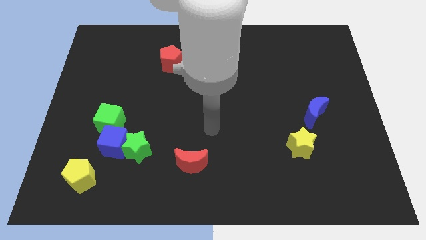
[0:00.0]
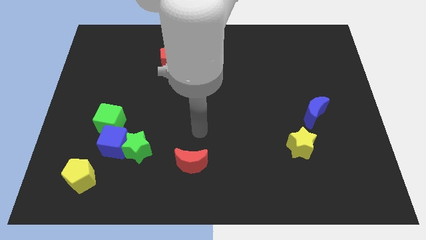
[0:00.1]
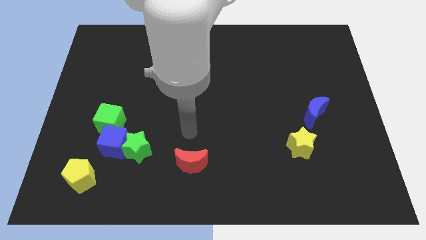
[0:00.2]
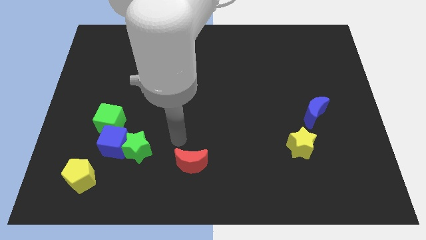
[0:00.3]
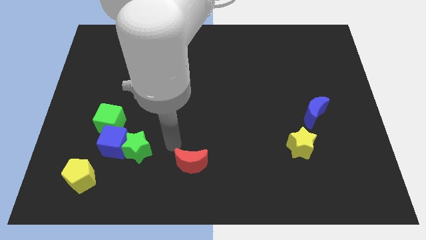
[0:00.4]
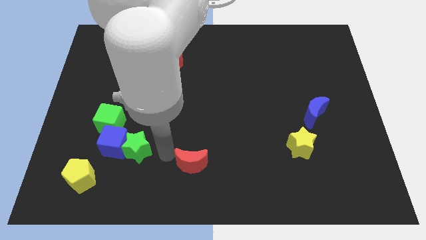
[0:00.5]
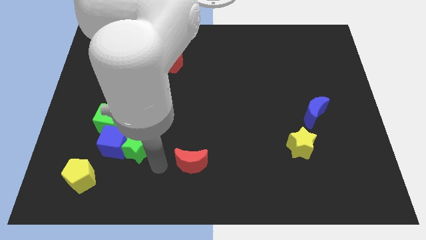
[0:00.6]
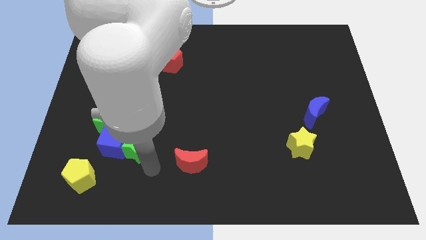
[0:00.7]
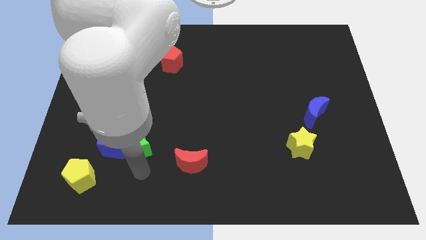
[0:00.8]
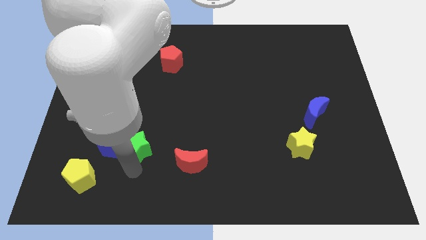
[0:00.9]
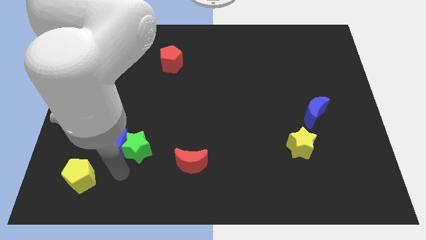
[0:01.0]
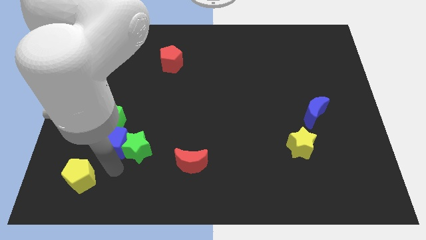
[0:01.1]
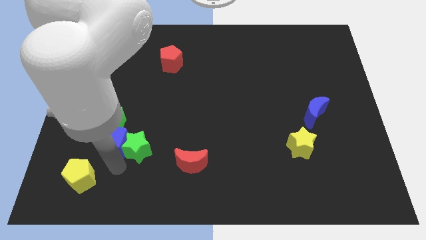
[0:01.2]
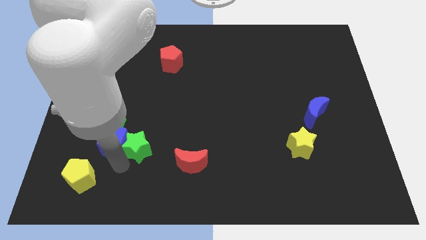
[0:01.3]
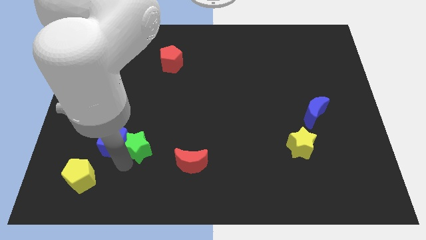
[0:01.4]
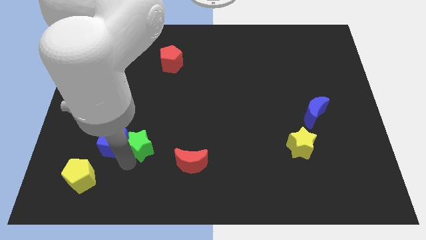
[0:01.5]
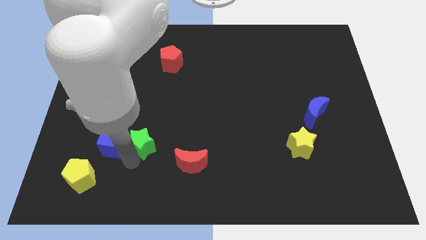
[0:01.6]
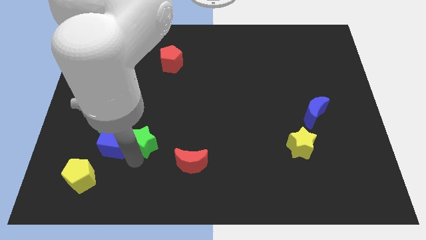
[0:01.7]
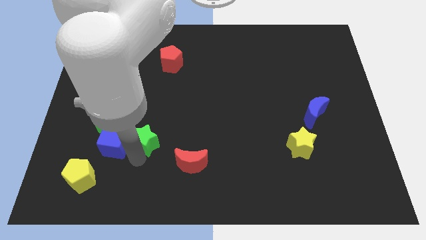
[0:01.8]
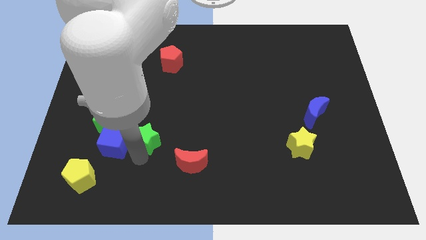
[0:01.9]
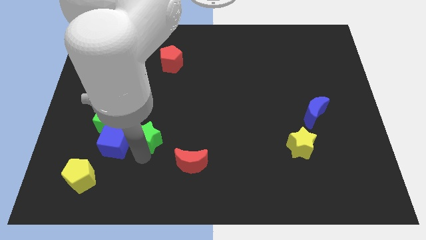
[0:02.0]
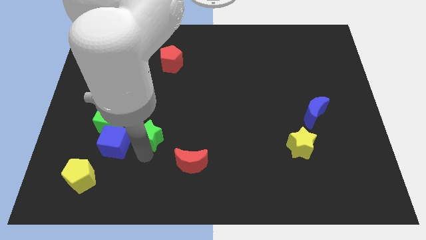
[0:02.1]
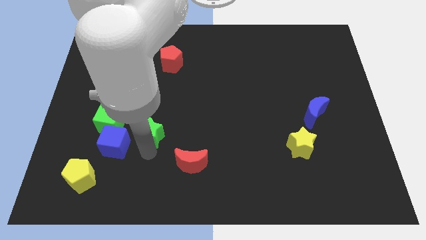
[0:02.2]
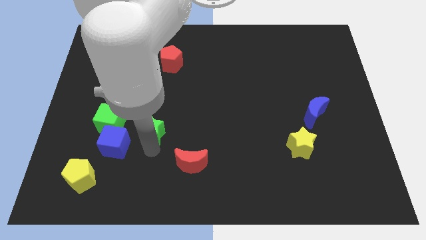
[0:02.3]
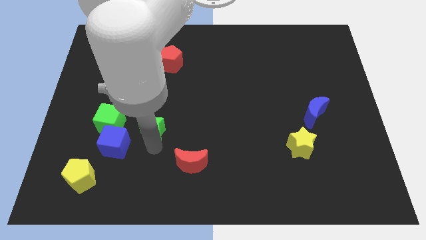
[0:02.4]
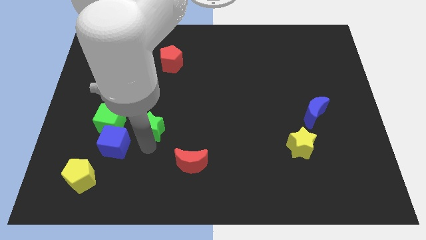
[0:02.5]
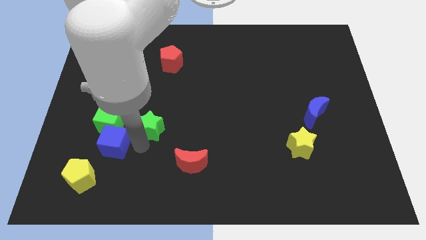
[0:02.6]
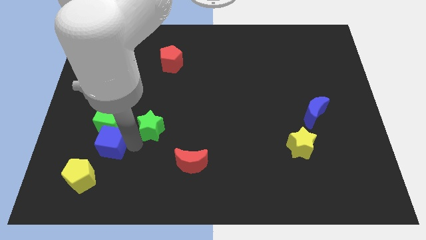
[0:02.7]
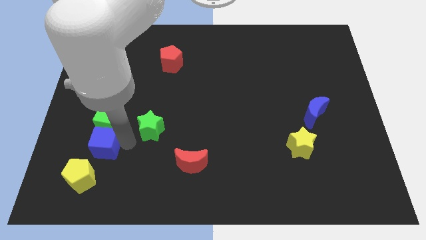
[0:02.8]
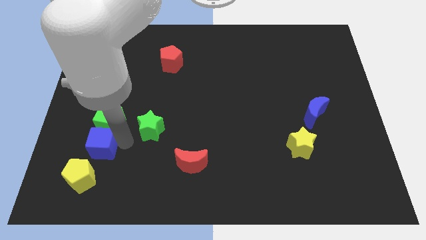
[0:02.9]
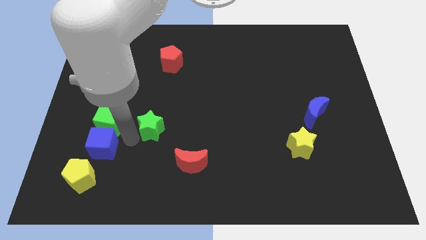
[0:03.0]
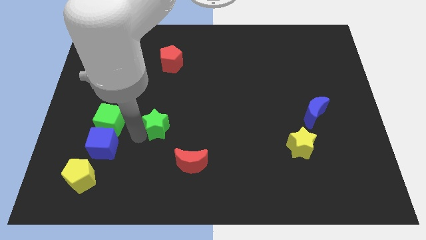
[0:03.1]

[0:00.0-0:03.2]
move the green star a little bit diagonally upwards and to the right

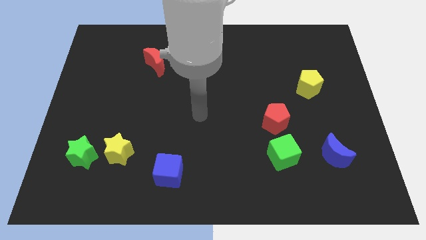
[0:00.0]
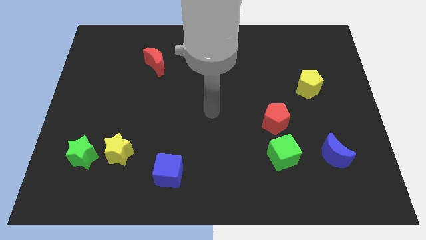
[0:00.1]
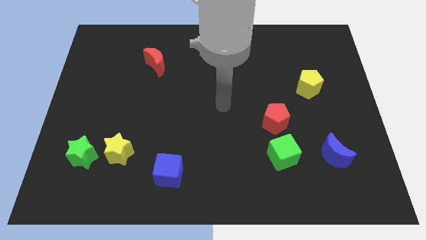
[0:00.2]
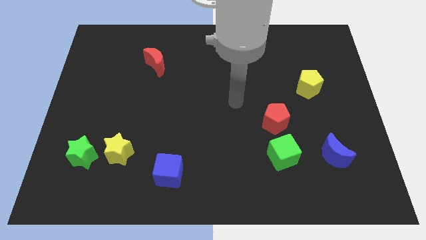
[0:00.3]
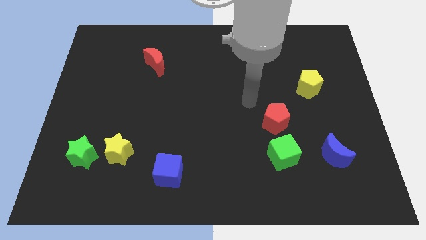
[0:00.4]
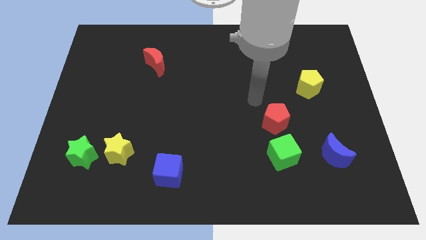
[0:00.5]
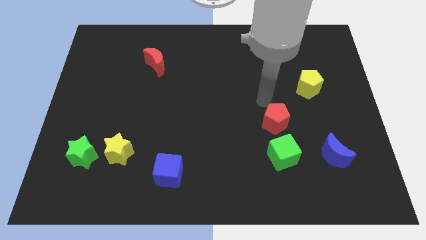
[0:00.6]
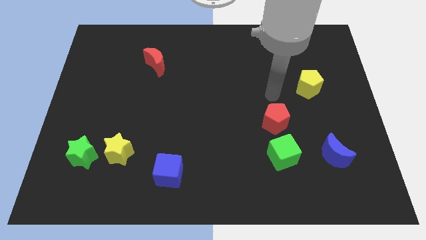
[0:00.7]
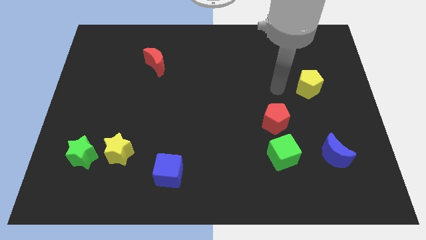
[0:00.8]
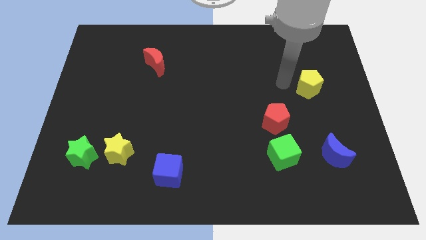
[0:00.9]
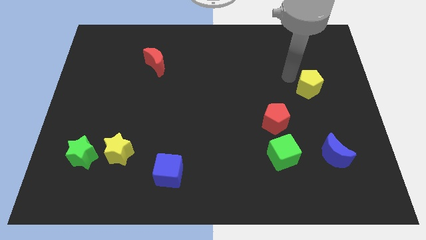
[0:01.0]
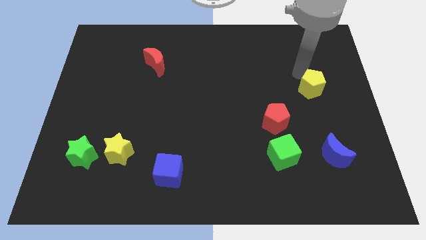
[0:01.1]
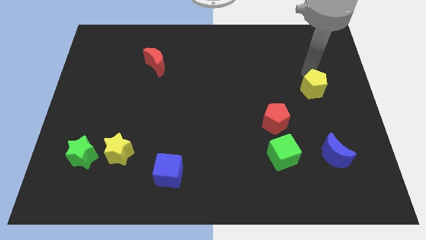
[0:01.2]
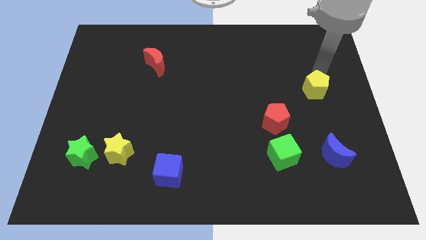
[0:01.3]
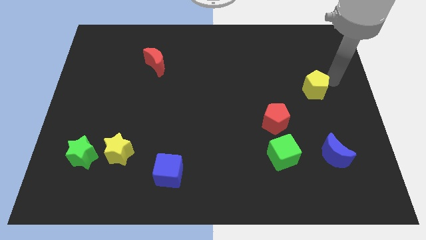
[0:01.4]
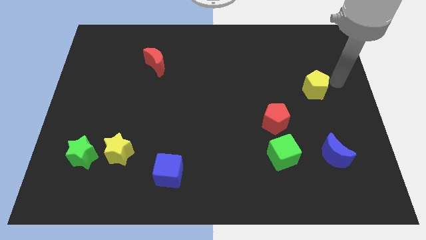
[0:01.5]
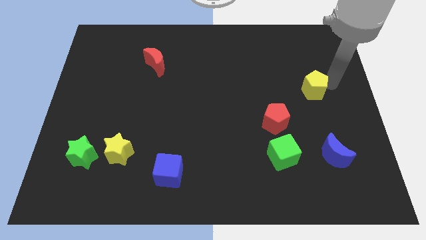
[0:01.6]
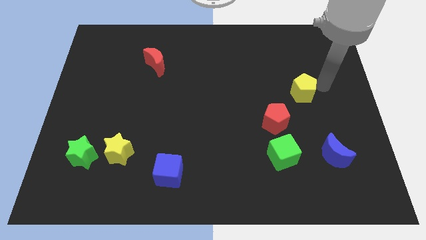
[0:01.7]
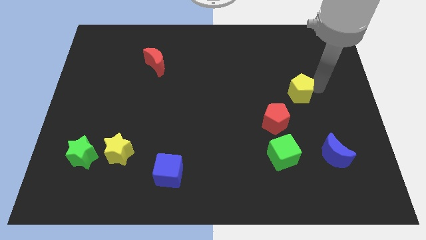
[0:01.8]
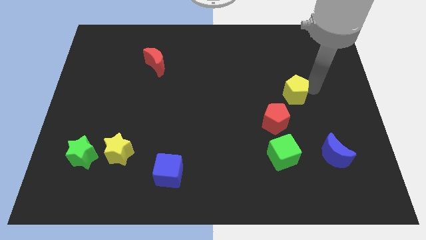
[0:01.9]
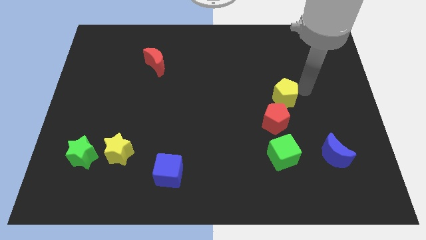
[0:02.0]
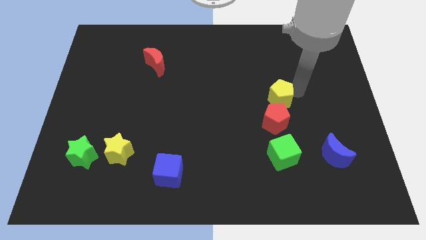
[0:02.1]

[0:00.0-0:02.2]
slightly push the yellow pentagon downwards and then to the left

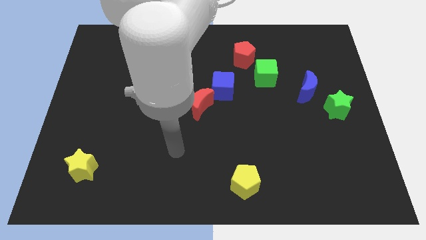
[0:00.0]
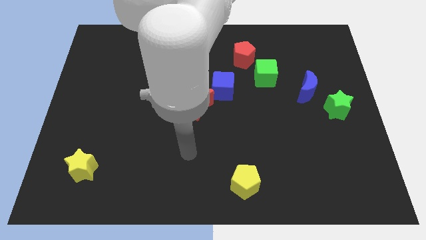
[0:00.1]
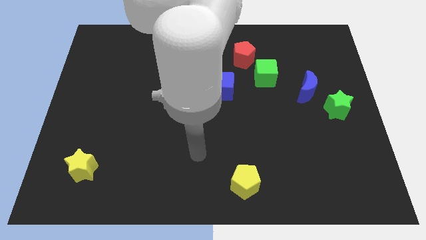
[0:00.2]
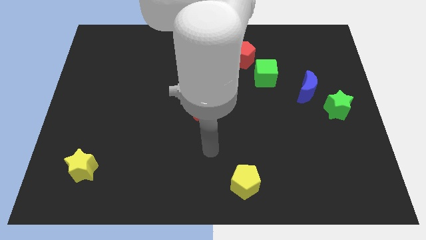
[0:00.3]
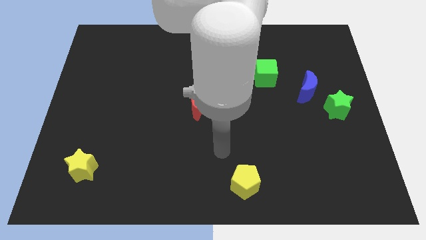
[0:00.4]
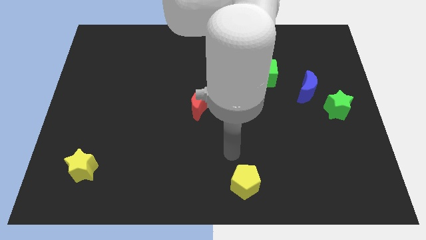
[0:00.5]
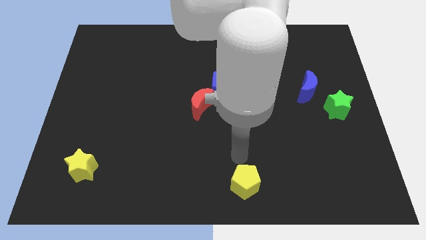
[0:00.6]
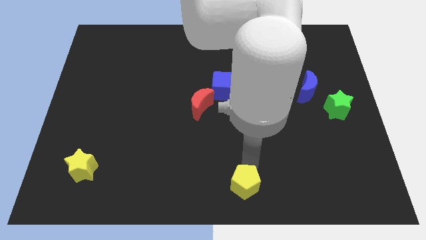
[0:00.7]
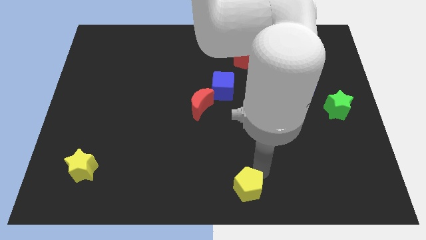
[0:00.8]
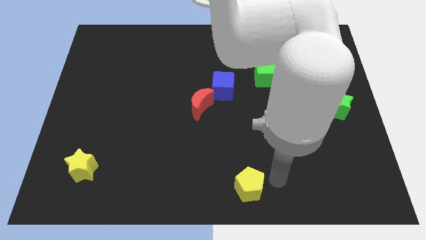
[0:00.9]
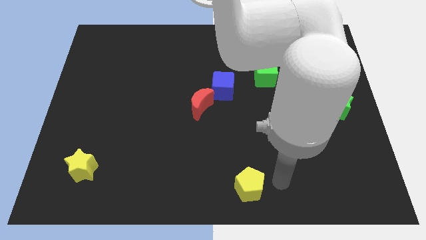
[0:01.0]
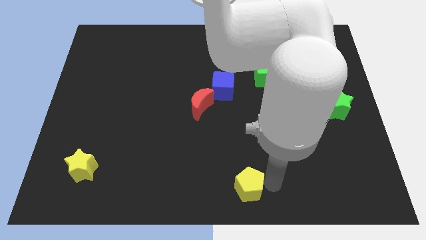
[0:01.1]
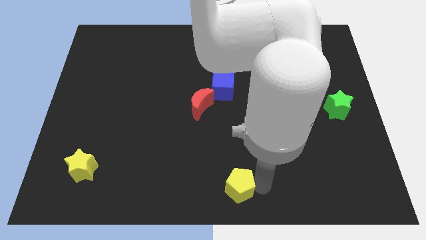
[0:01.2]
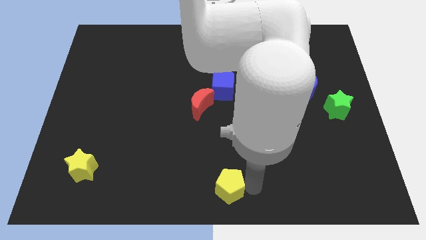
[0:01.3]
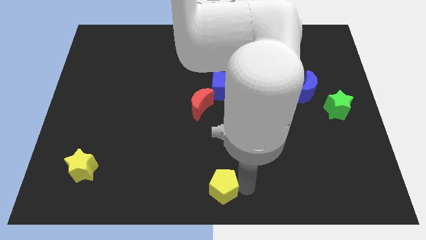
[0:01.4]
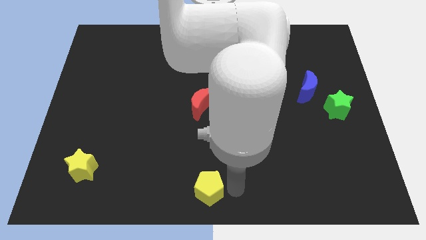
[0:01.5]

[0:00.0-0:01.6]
slide the yellow pentagon a bit to the left

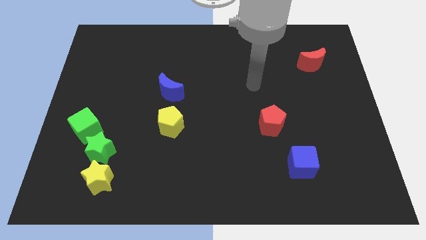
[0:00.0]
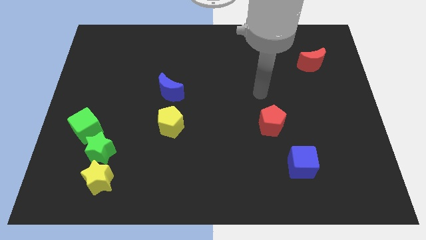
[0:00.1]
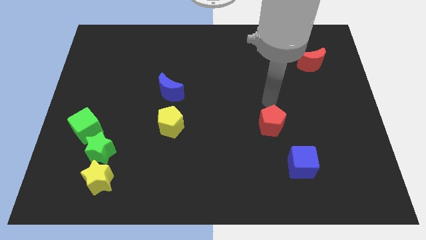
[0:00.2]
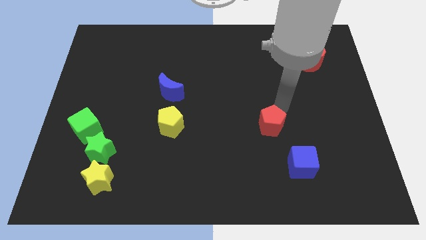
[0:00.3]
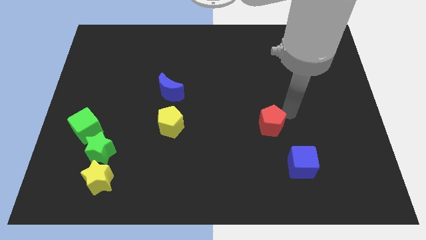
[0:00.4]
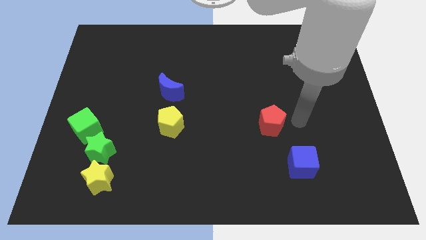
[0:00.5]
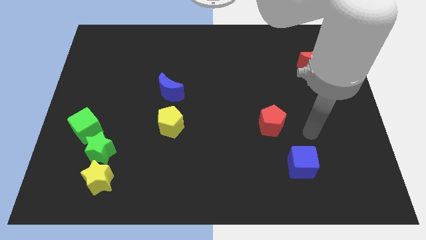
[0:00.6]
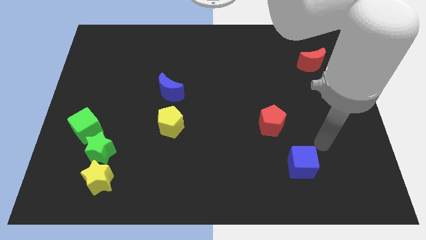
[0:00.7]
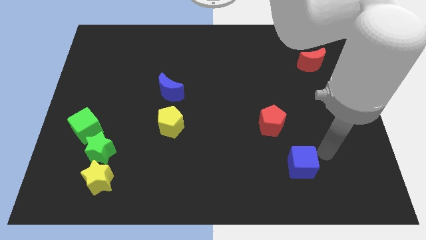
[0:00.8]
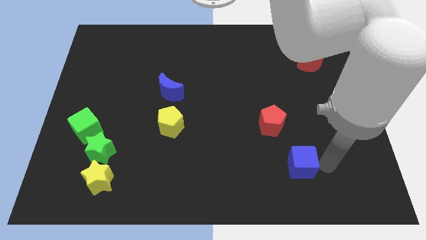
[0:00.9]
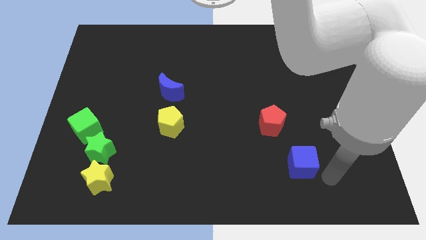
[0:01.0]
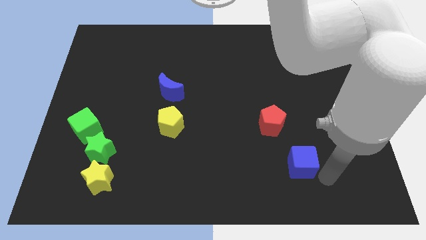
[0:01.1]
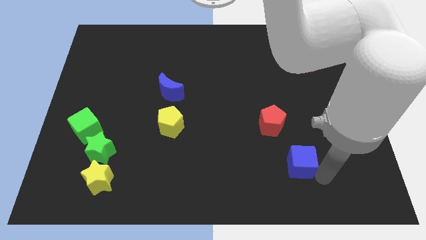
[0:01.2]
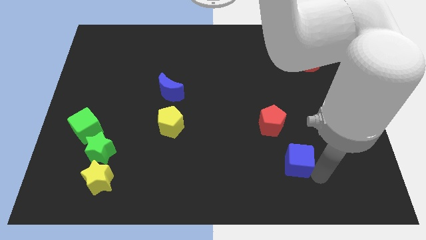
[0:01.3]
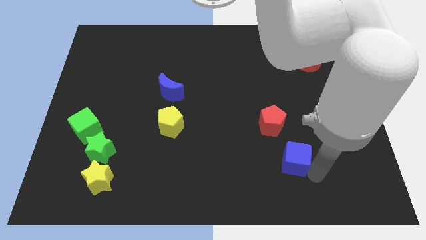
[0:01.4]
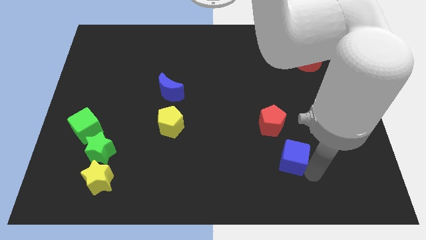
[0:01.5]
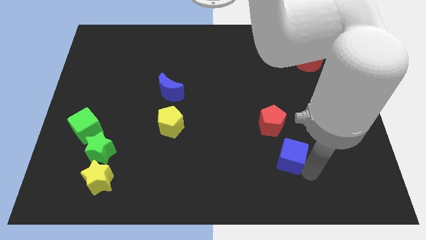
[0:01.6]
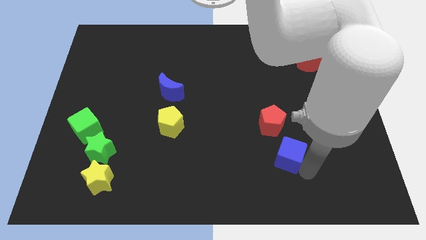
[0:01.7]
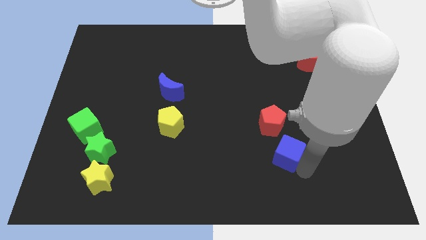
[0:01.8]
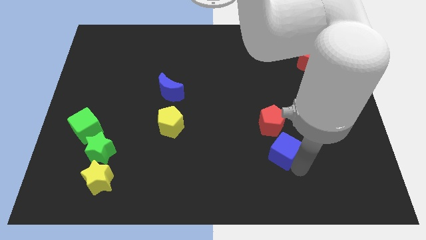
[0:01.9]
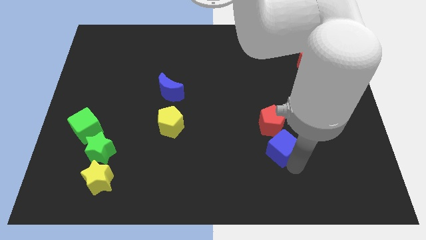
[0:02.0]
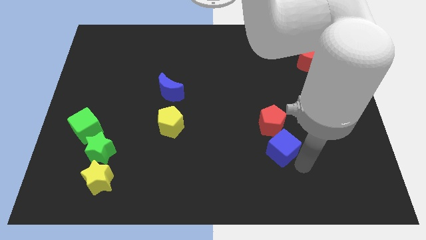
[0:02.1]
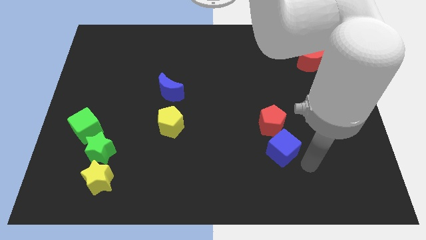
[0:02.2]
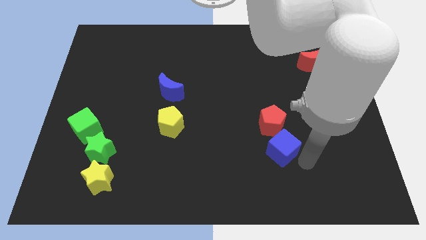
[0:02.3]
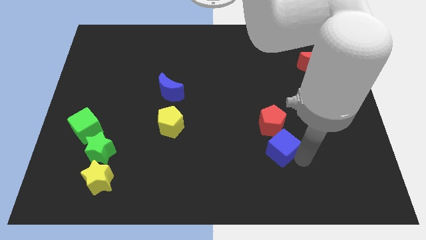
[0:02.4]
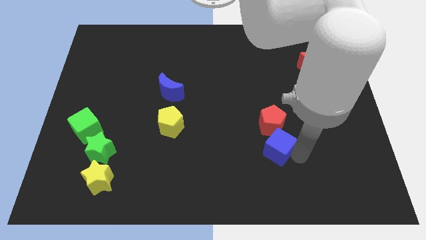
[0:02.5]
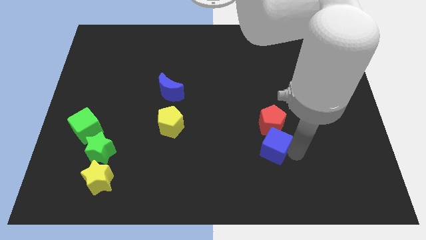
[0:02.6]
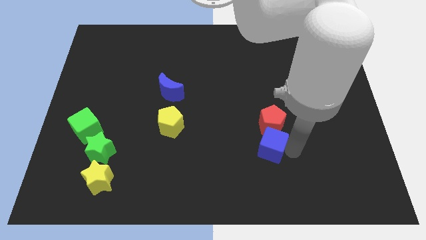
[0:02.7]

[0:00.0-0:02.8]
slightly push the blue cube up and then left
